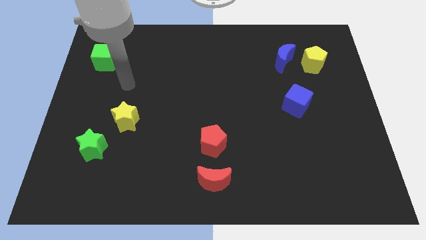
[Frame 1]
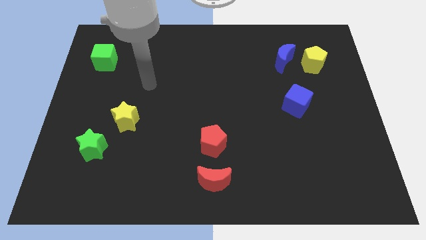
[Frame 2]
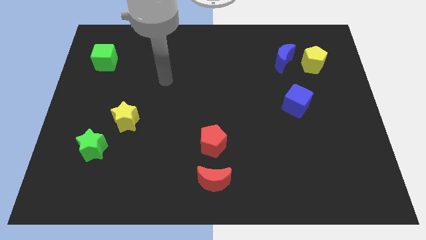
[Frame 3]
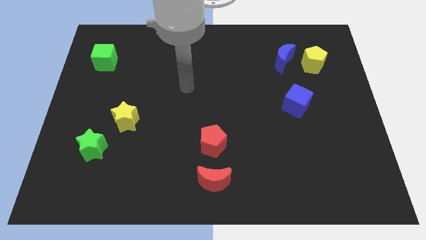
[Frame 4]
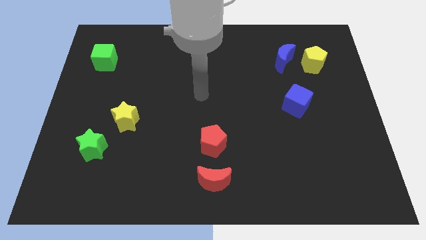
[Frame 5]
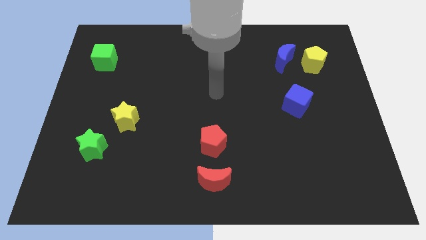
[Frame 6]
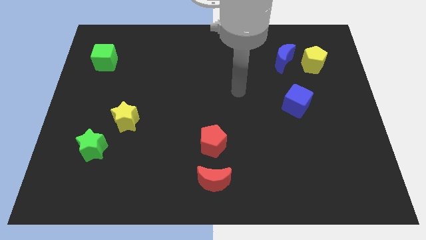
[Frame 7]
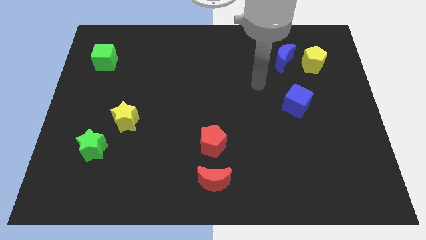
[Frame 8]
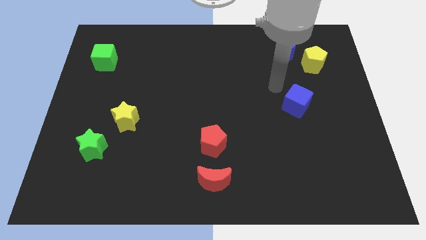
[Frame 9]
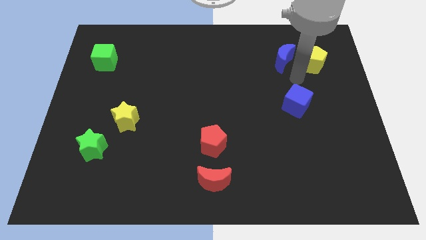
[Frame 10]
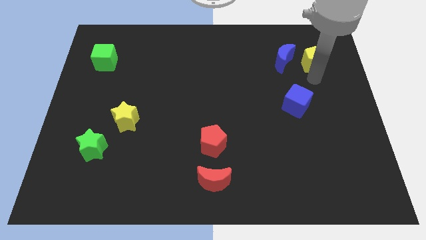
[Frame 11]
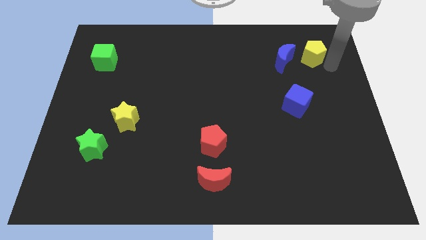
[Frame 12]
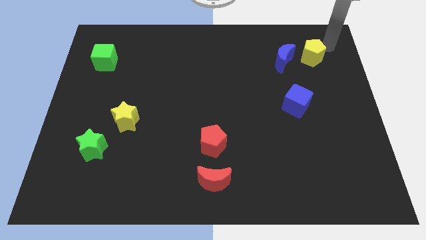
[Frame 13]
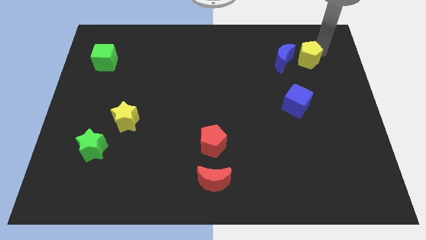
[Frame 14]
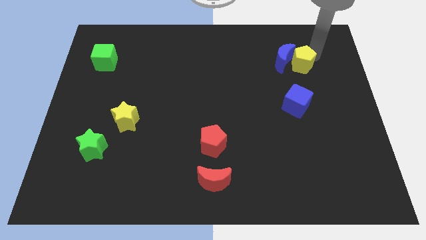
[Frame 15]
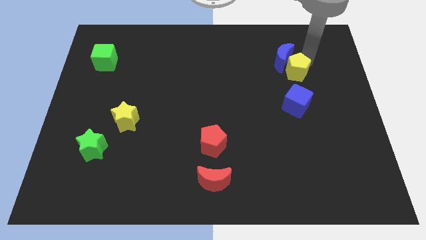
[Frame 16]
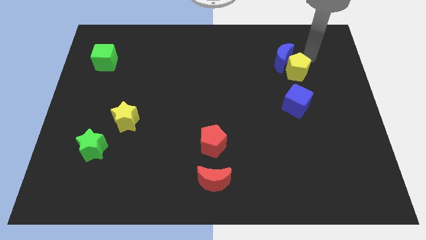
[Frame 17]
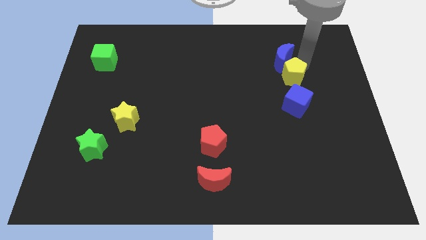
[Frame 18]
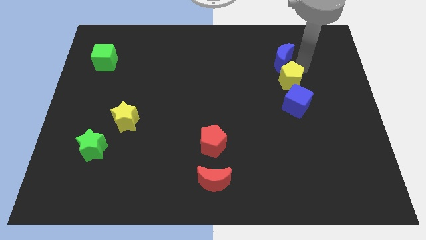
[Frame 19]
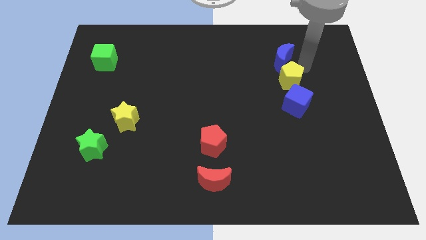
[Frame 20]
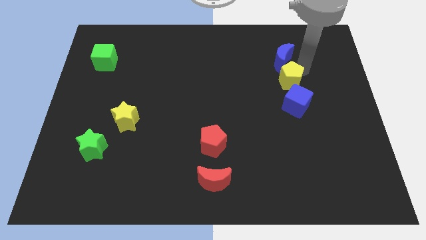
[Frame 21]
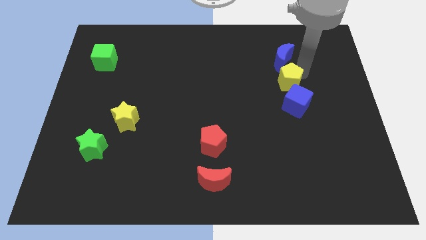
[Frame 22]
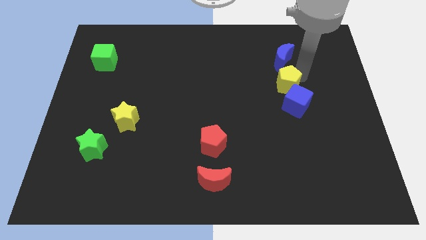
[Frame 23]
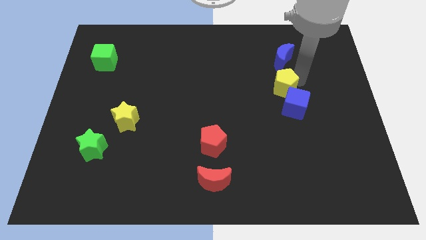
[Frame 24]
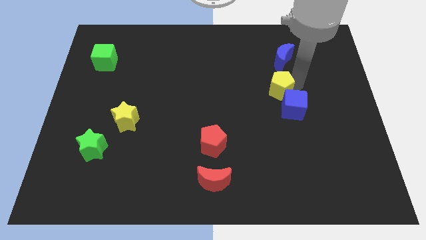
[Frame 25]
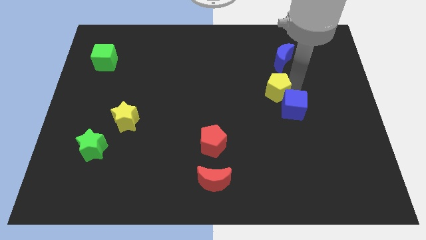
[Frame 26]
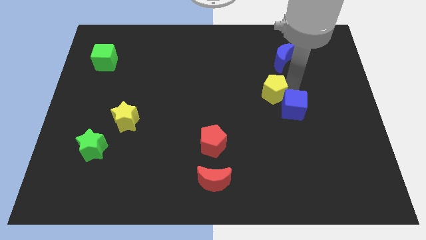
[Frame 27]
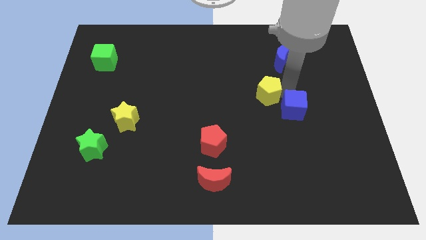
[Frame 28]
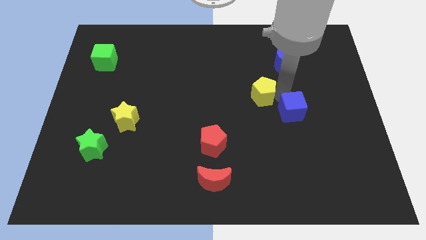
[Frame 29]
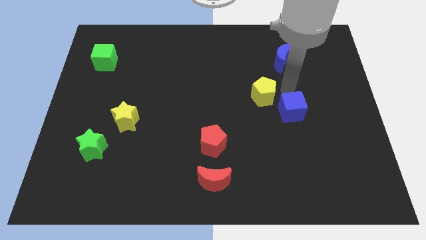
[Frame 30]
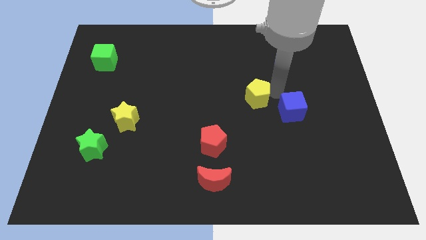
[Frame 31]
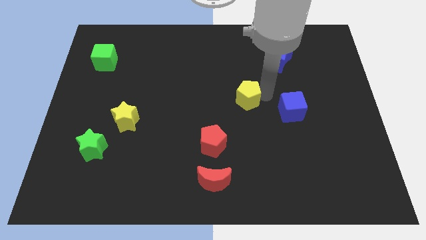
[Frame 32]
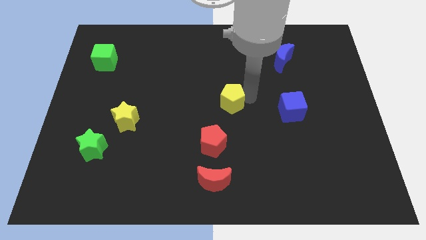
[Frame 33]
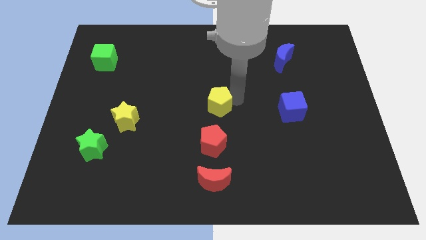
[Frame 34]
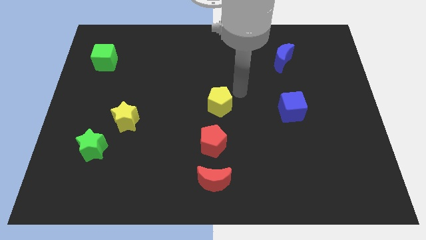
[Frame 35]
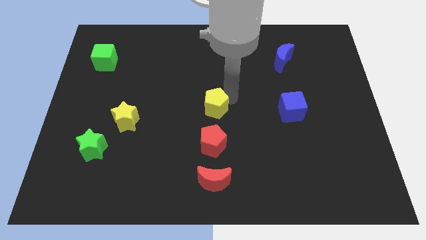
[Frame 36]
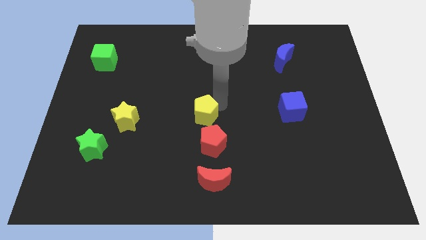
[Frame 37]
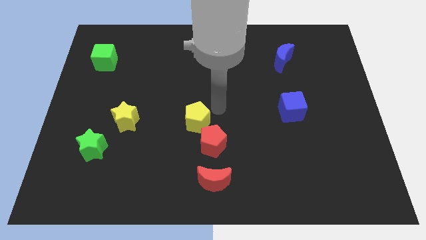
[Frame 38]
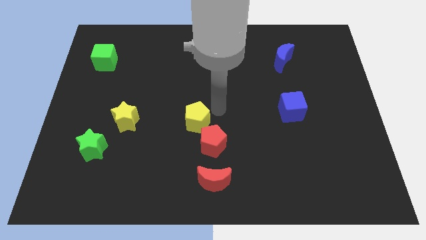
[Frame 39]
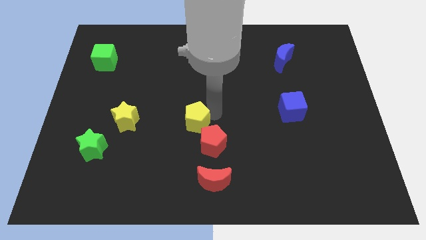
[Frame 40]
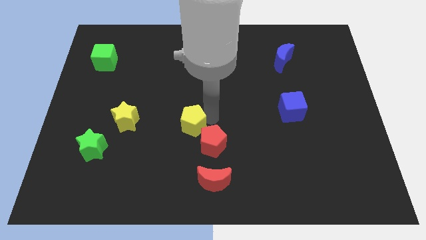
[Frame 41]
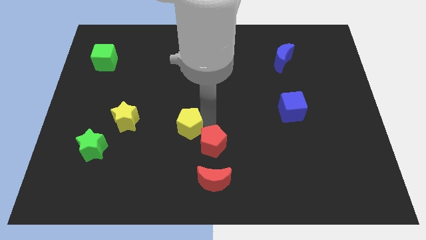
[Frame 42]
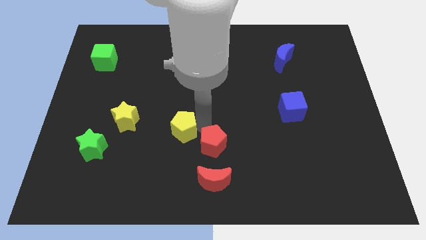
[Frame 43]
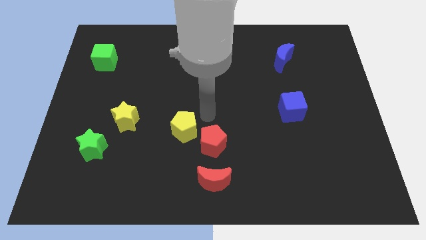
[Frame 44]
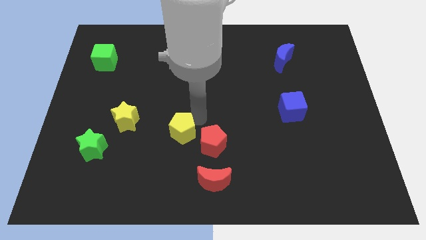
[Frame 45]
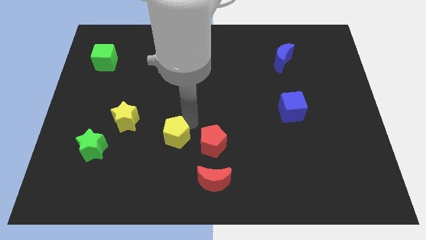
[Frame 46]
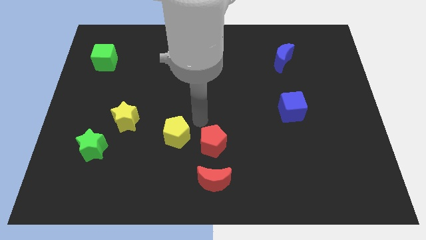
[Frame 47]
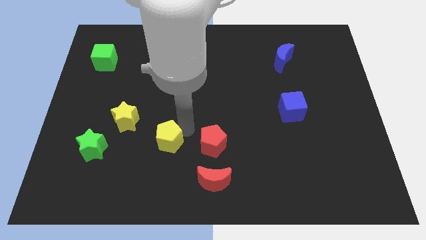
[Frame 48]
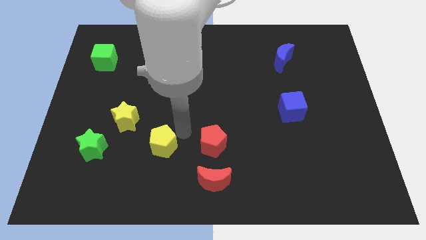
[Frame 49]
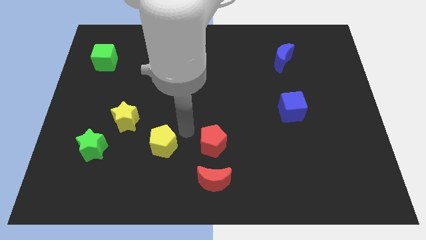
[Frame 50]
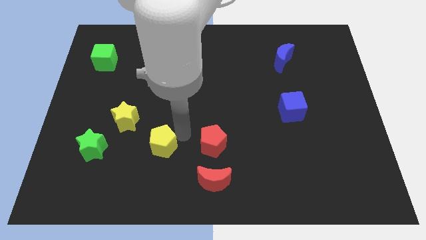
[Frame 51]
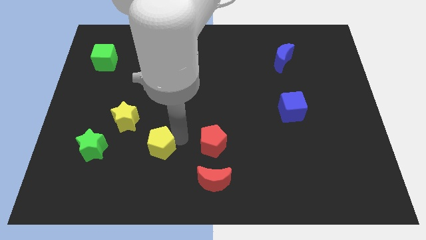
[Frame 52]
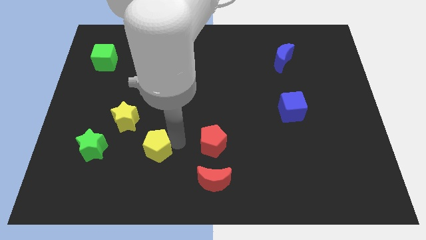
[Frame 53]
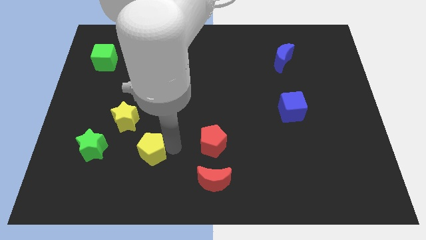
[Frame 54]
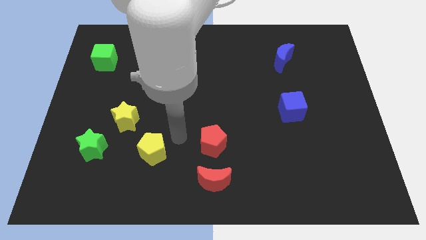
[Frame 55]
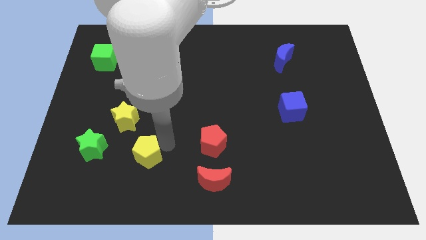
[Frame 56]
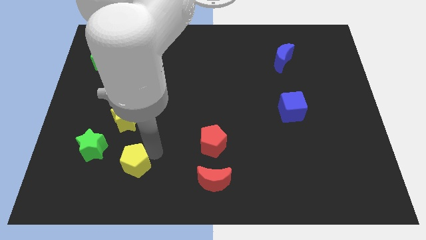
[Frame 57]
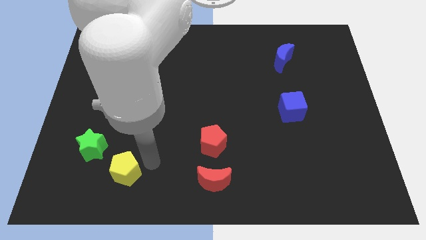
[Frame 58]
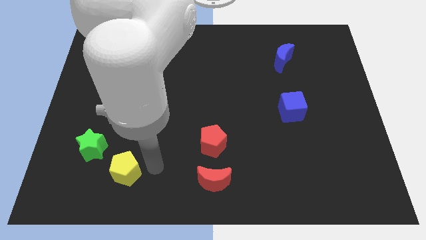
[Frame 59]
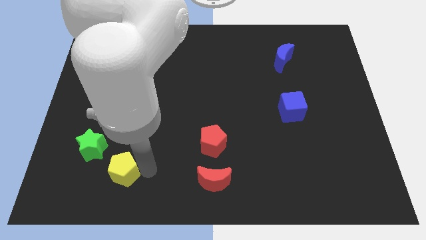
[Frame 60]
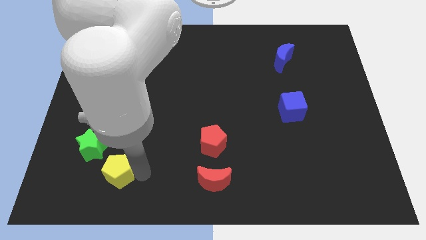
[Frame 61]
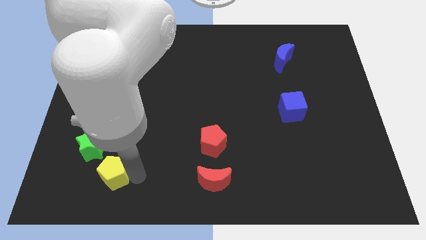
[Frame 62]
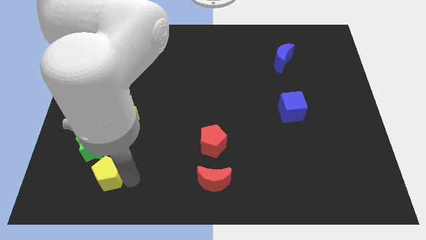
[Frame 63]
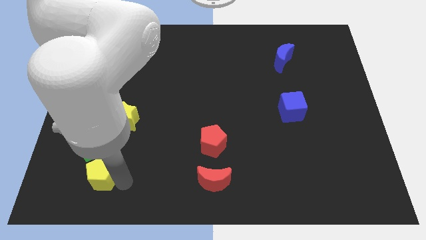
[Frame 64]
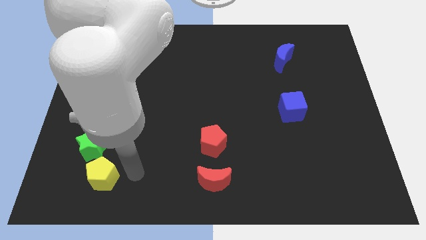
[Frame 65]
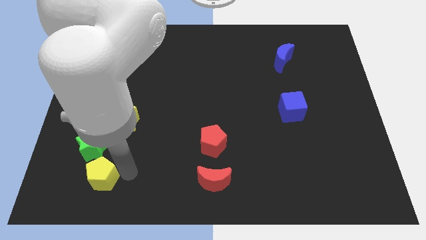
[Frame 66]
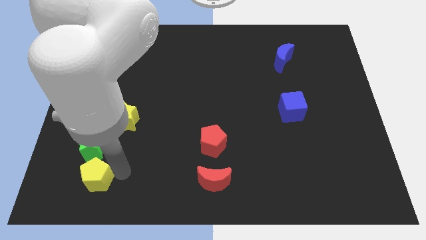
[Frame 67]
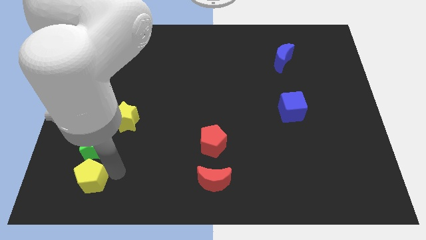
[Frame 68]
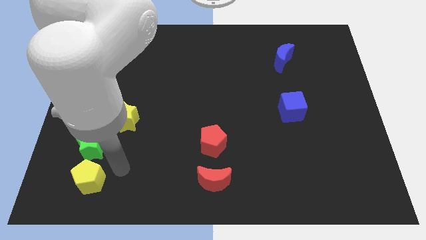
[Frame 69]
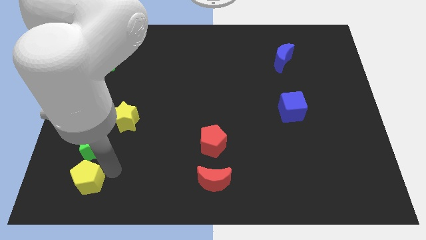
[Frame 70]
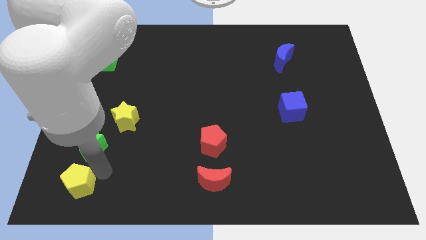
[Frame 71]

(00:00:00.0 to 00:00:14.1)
put the yellow pentagon to the bottom left corner
